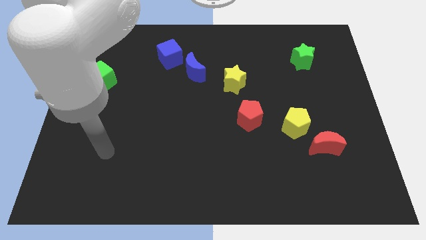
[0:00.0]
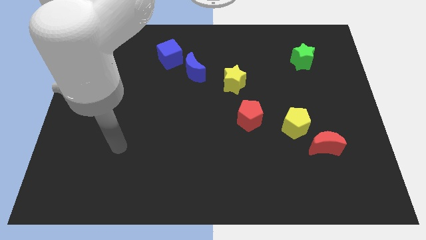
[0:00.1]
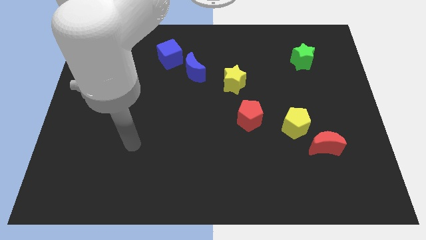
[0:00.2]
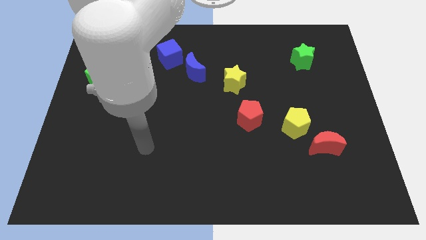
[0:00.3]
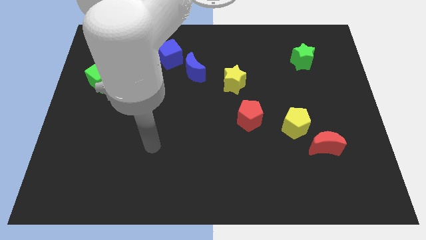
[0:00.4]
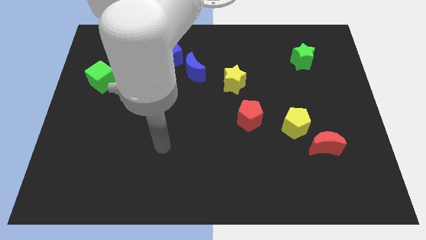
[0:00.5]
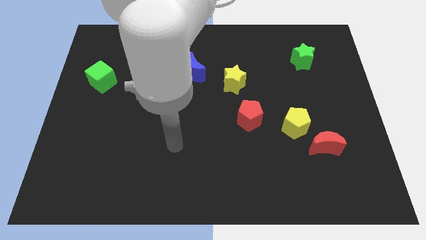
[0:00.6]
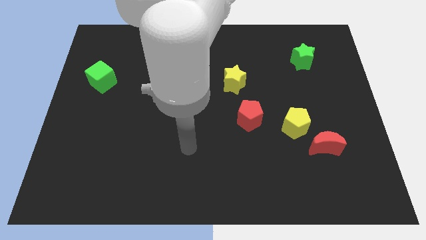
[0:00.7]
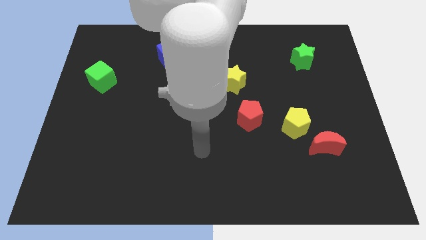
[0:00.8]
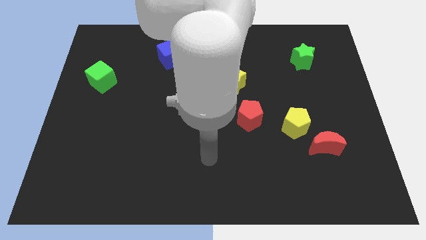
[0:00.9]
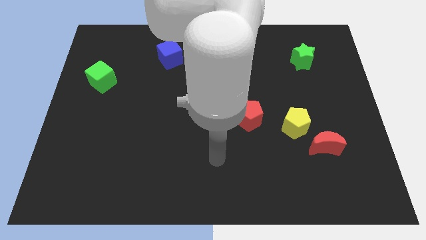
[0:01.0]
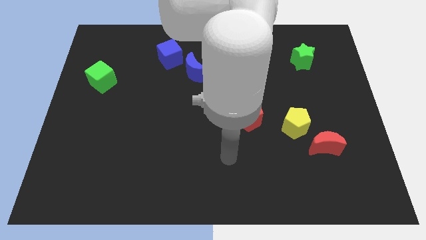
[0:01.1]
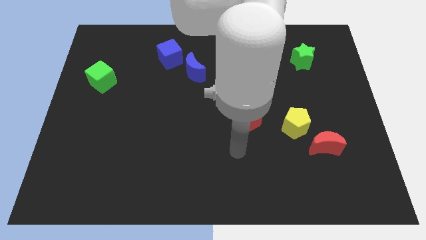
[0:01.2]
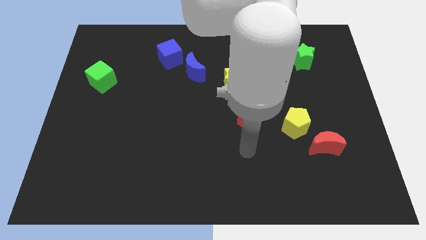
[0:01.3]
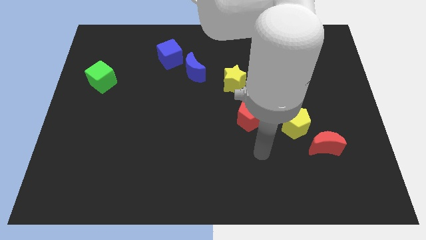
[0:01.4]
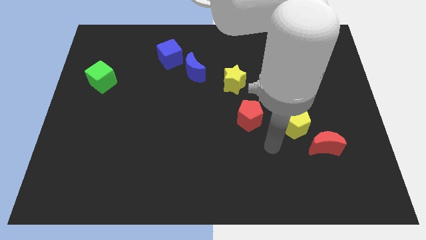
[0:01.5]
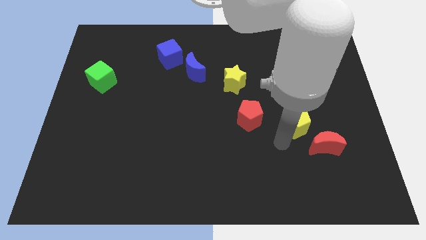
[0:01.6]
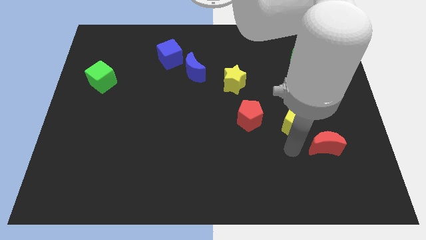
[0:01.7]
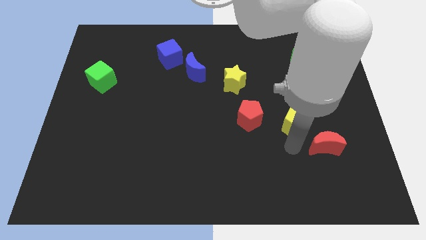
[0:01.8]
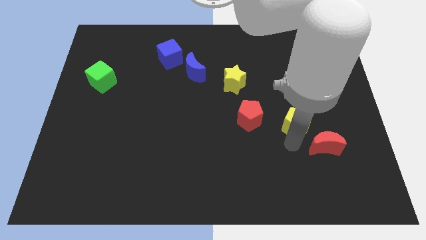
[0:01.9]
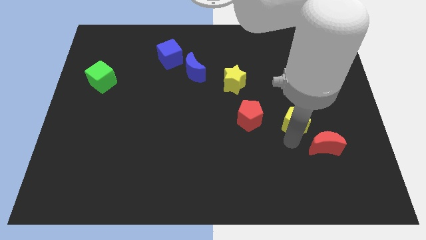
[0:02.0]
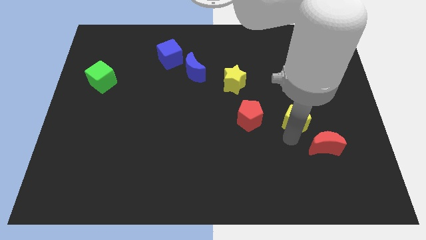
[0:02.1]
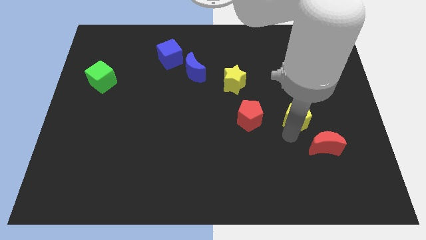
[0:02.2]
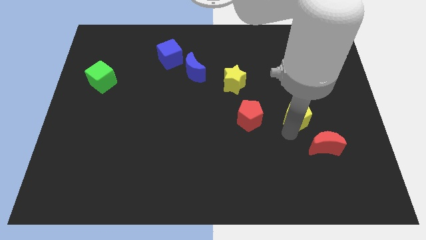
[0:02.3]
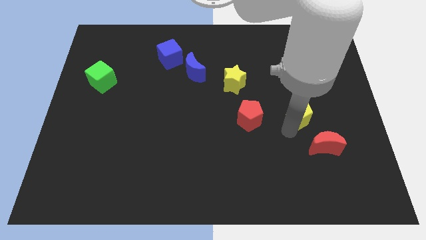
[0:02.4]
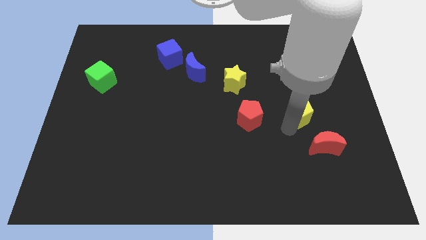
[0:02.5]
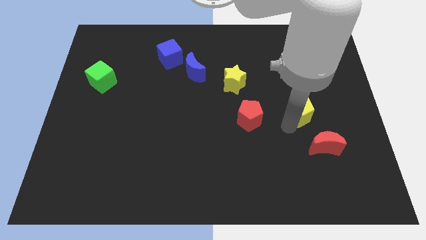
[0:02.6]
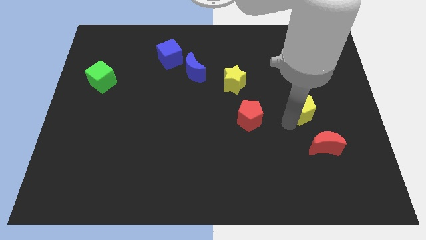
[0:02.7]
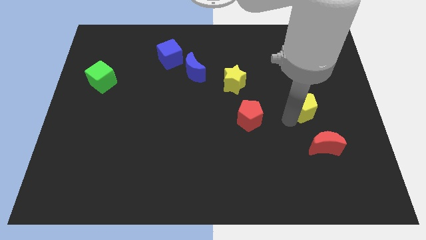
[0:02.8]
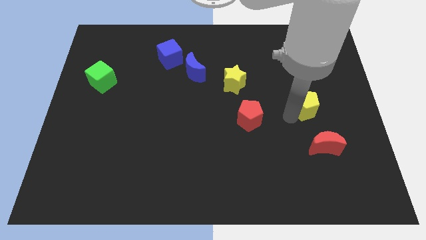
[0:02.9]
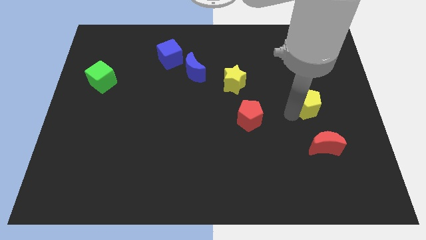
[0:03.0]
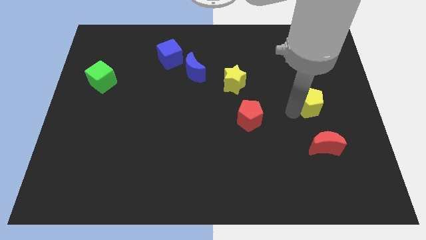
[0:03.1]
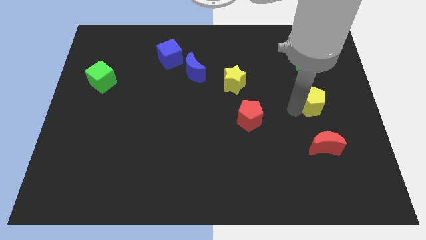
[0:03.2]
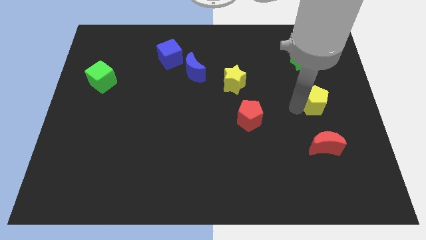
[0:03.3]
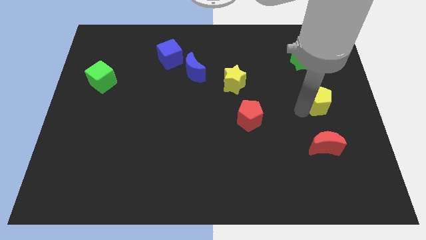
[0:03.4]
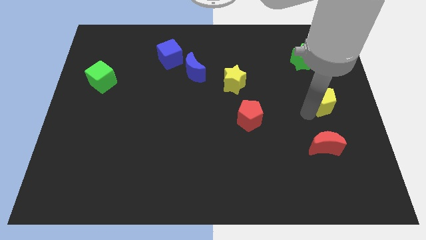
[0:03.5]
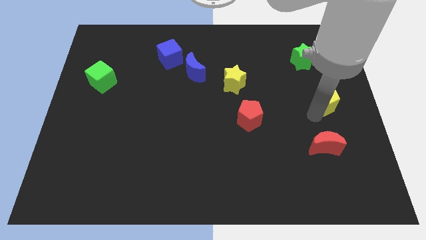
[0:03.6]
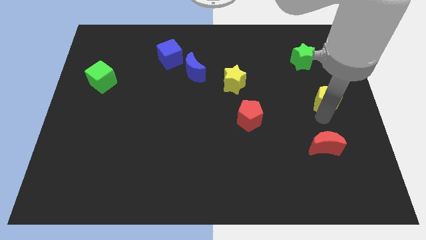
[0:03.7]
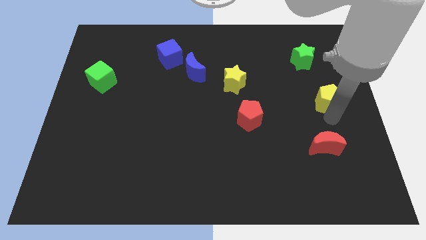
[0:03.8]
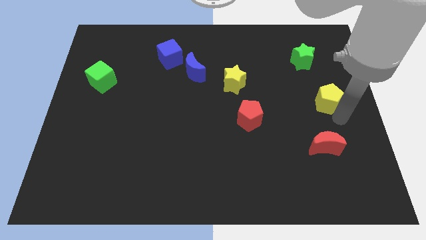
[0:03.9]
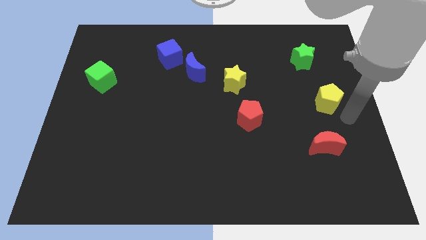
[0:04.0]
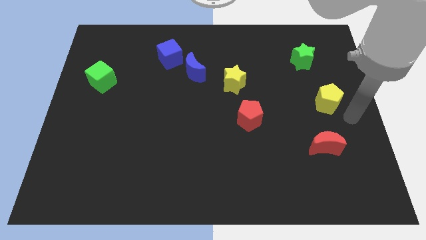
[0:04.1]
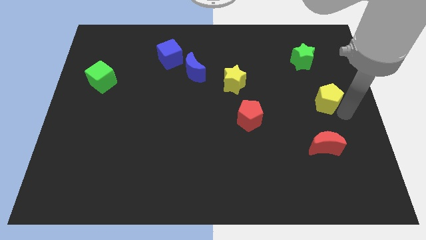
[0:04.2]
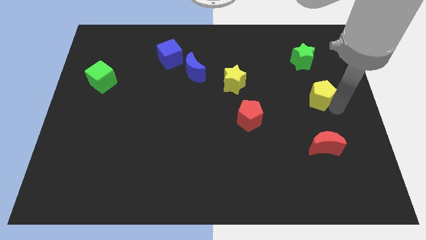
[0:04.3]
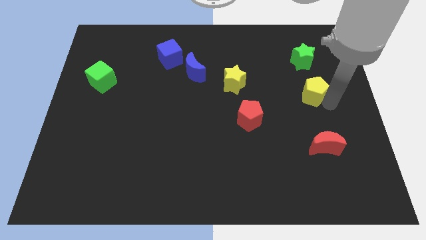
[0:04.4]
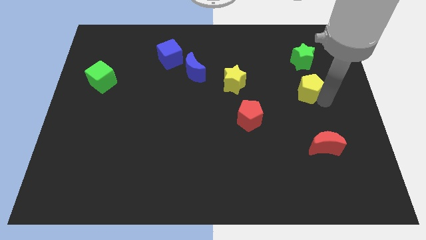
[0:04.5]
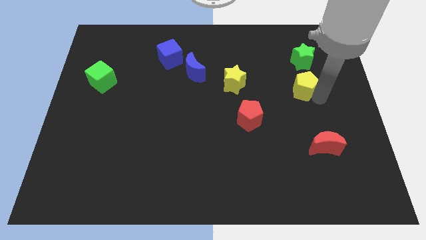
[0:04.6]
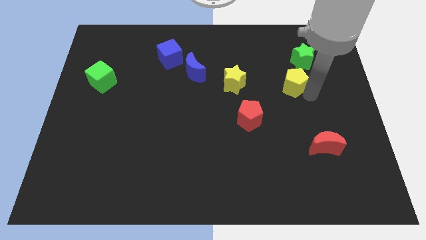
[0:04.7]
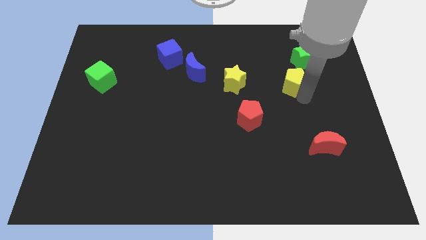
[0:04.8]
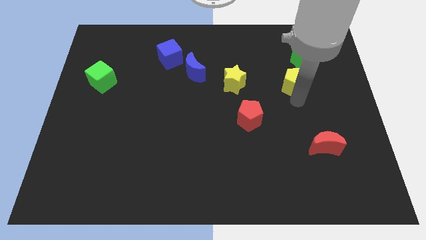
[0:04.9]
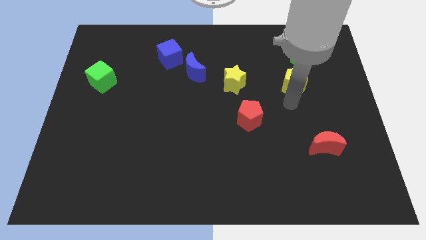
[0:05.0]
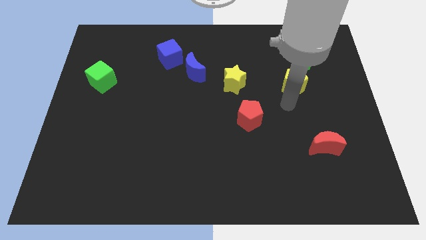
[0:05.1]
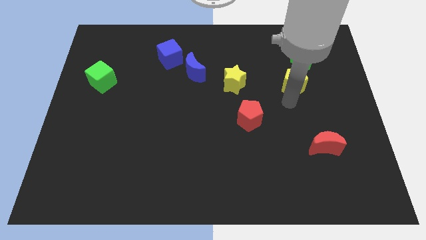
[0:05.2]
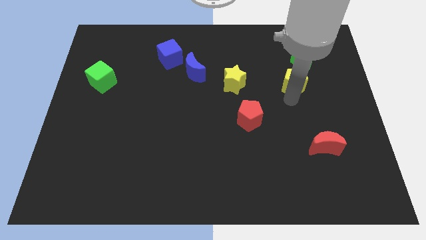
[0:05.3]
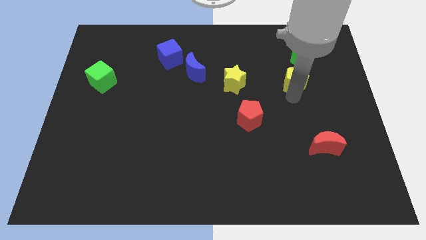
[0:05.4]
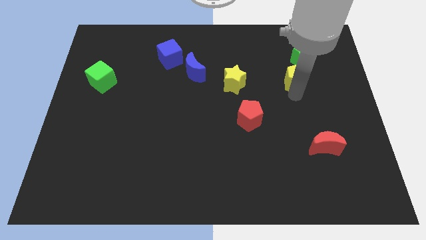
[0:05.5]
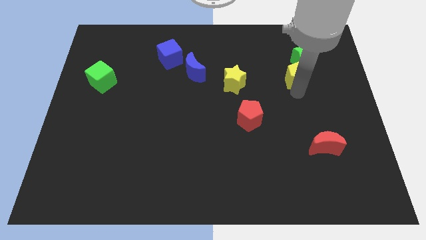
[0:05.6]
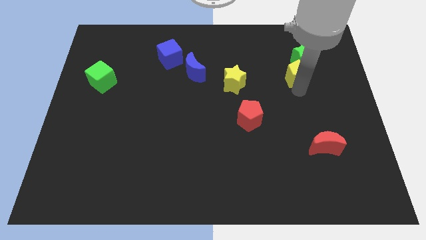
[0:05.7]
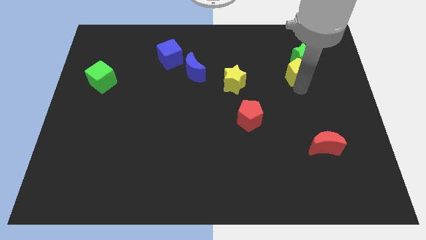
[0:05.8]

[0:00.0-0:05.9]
put the yellow pentagon next to the green star

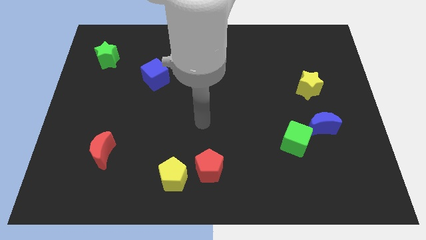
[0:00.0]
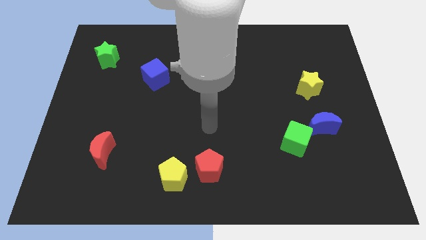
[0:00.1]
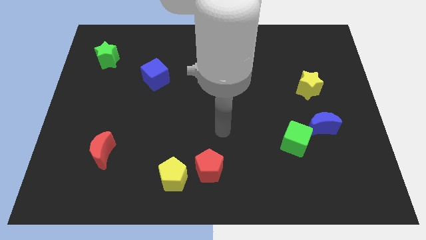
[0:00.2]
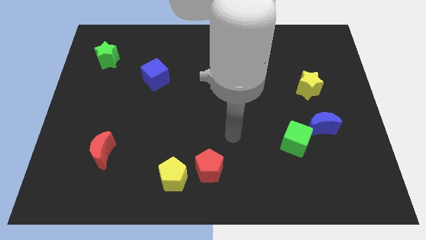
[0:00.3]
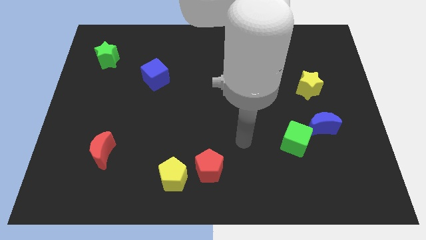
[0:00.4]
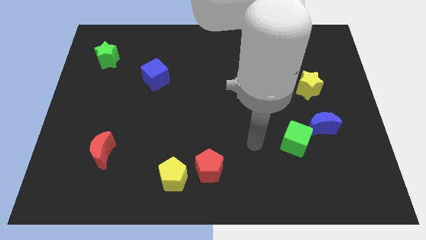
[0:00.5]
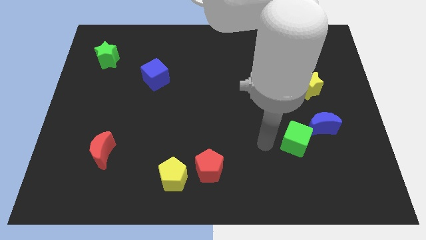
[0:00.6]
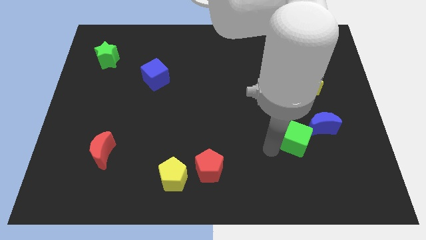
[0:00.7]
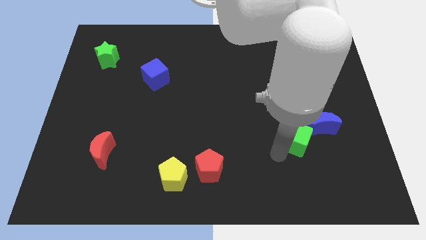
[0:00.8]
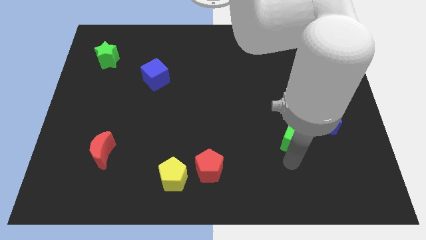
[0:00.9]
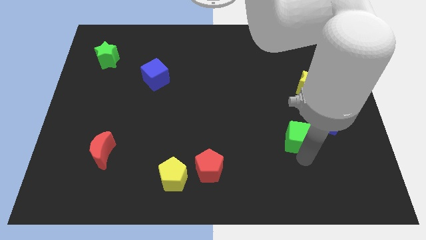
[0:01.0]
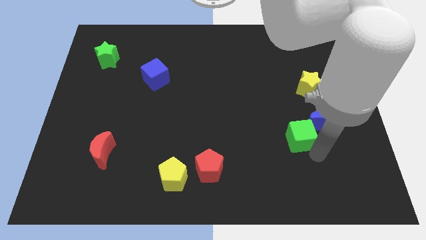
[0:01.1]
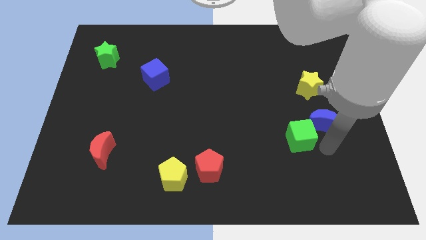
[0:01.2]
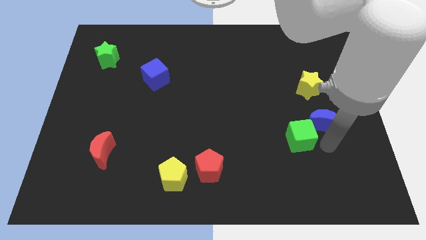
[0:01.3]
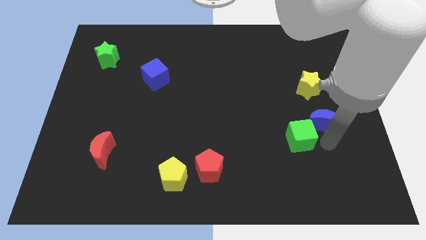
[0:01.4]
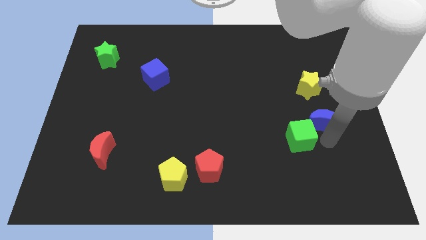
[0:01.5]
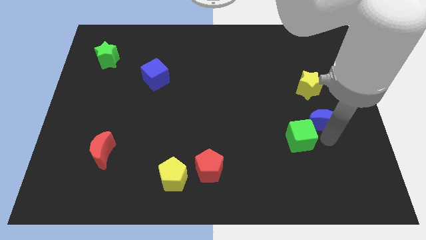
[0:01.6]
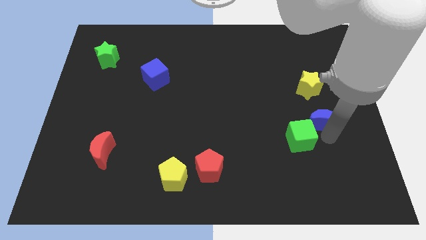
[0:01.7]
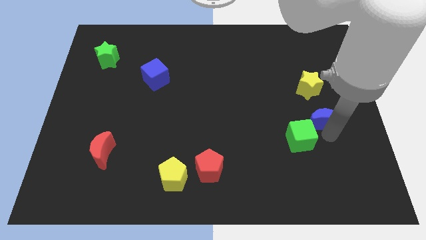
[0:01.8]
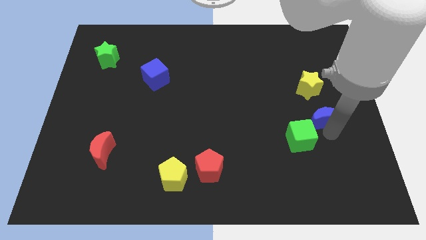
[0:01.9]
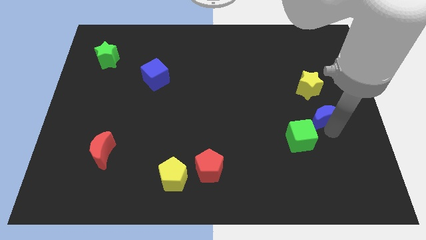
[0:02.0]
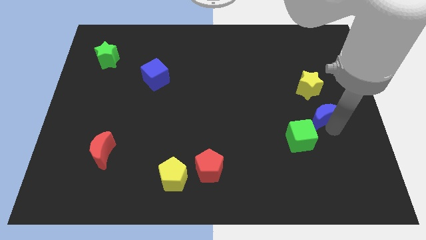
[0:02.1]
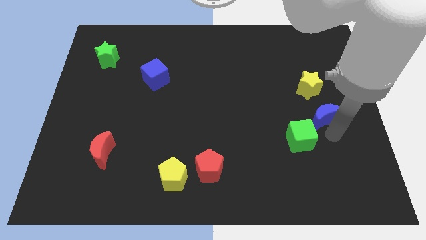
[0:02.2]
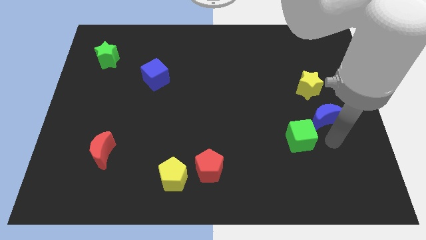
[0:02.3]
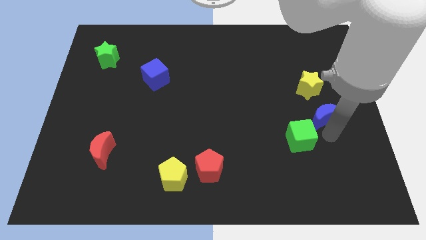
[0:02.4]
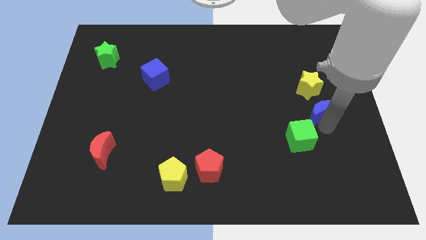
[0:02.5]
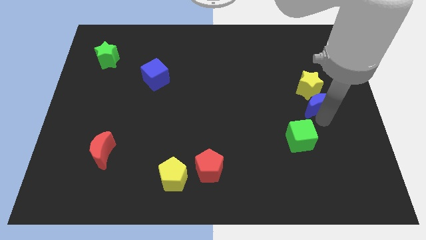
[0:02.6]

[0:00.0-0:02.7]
push the blue moon next to the yellow star
